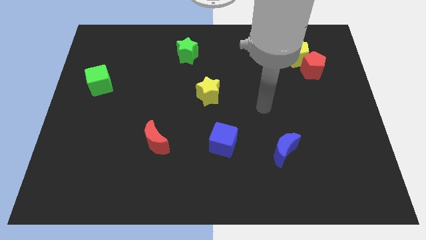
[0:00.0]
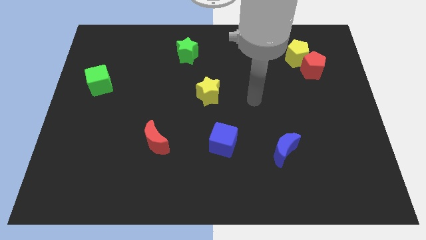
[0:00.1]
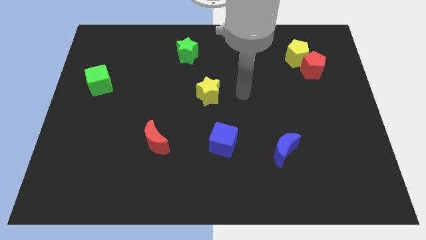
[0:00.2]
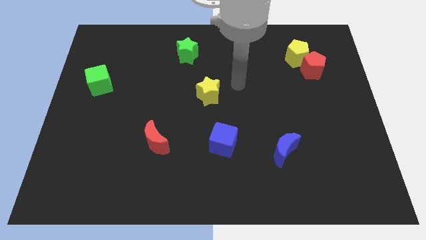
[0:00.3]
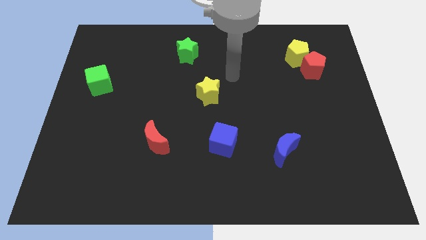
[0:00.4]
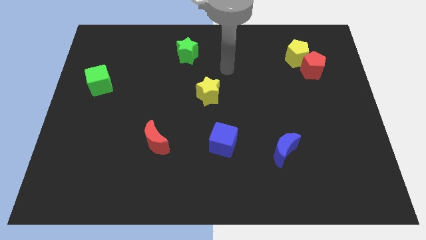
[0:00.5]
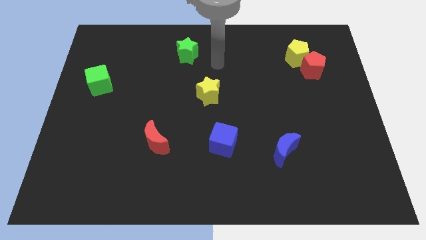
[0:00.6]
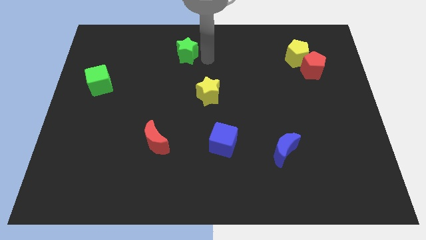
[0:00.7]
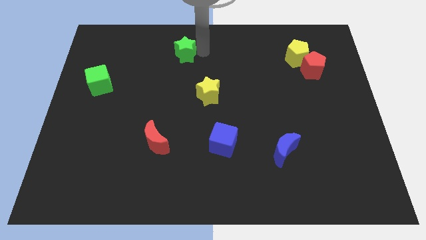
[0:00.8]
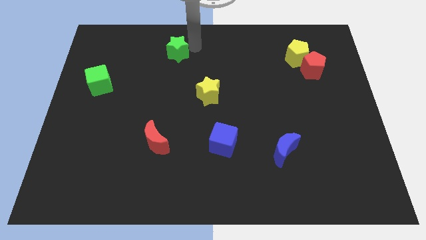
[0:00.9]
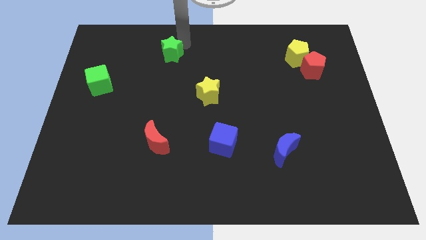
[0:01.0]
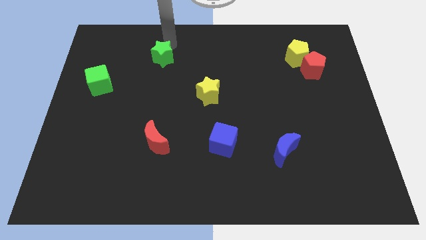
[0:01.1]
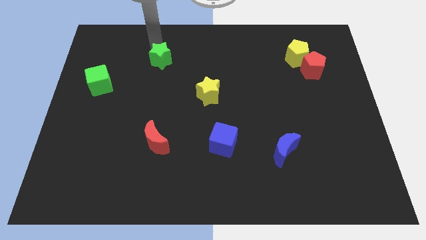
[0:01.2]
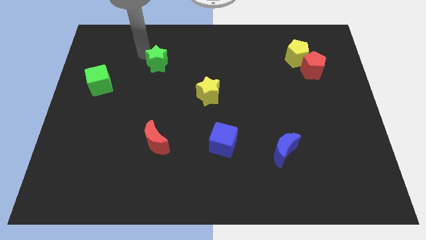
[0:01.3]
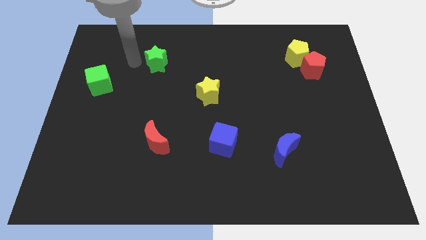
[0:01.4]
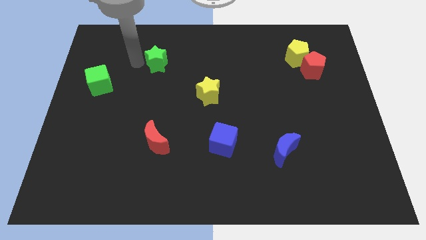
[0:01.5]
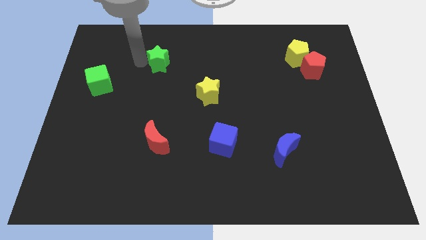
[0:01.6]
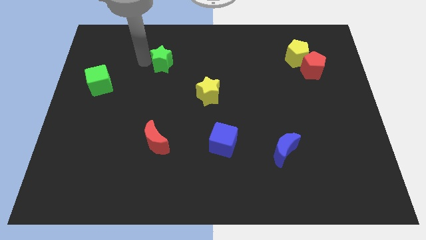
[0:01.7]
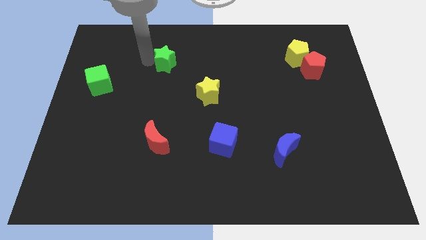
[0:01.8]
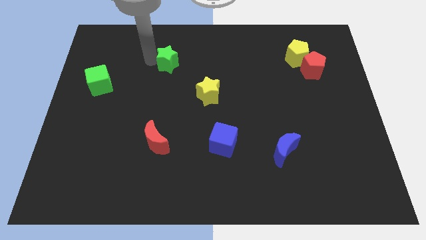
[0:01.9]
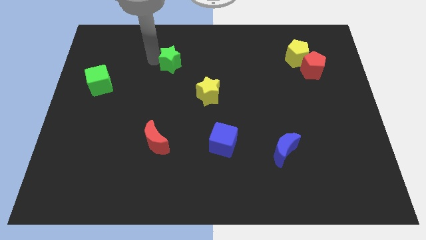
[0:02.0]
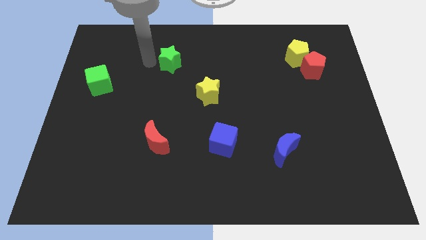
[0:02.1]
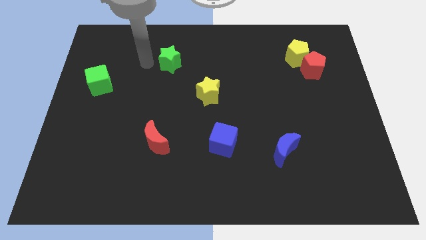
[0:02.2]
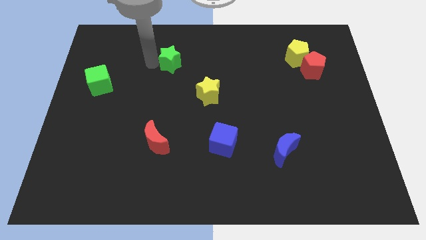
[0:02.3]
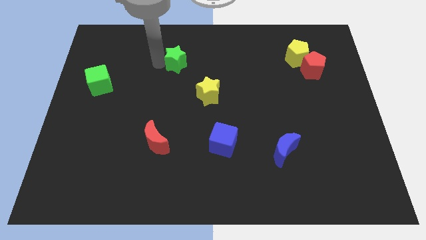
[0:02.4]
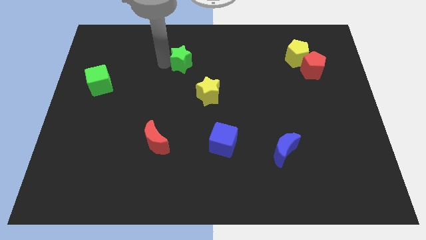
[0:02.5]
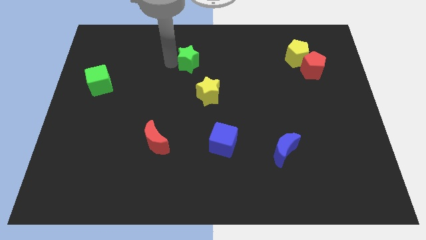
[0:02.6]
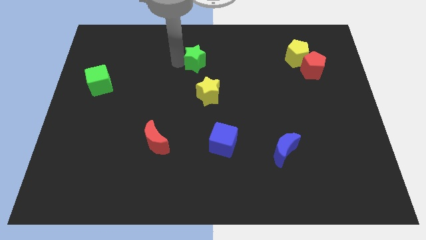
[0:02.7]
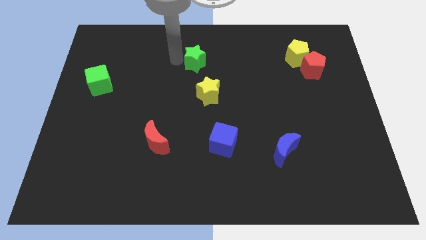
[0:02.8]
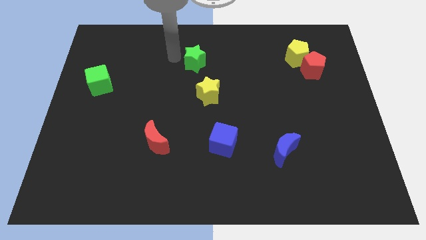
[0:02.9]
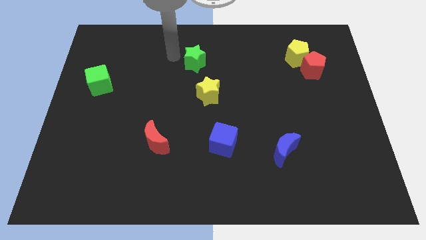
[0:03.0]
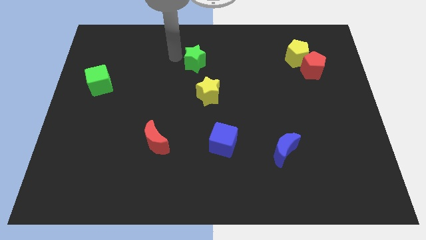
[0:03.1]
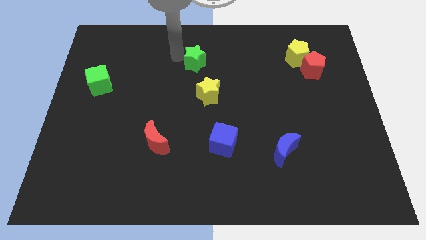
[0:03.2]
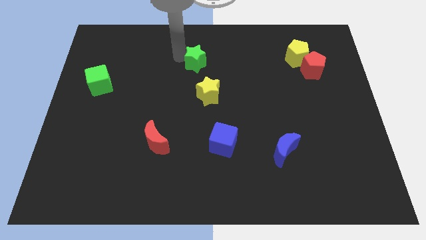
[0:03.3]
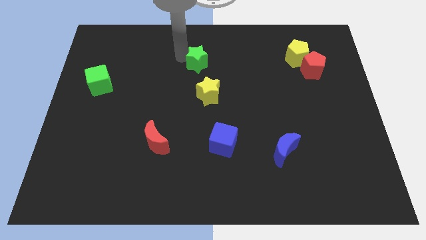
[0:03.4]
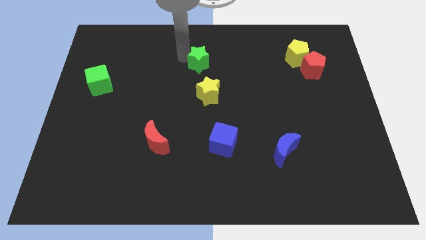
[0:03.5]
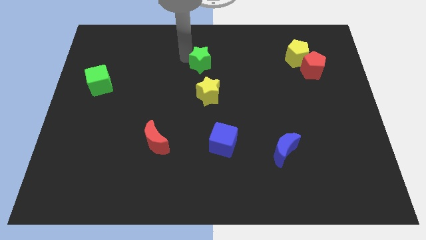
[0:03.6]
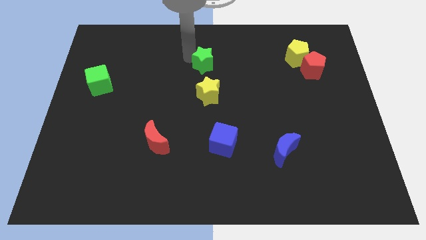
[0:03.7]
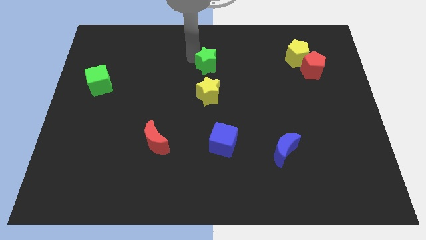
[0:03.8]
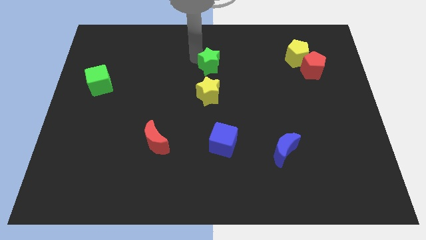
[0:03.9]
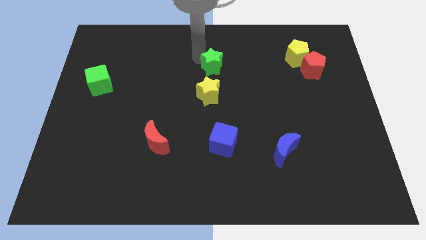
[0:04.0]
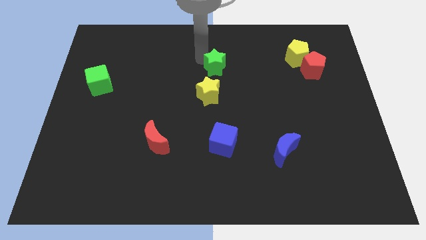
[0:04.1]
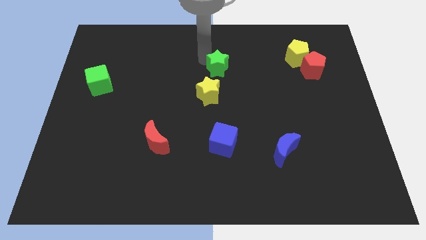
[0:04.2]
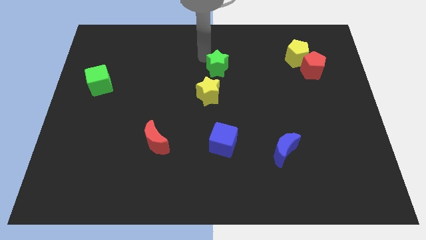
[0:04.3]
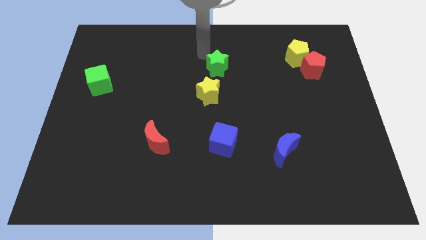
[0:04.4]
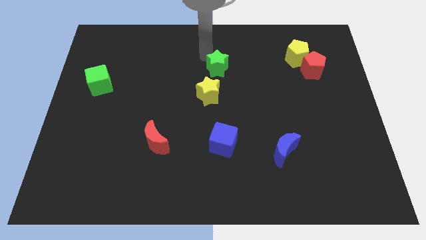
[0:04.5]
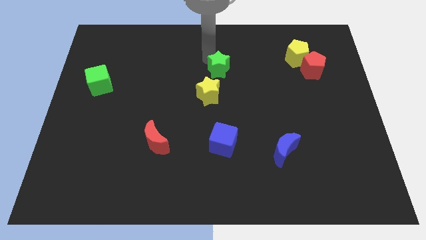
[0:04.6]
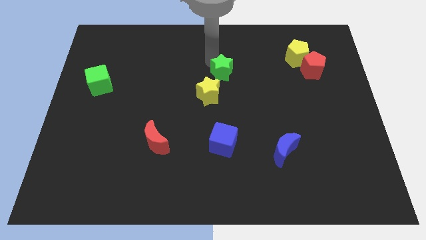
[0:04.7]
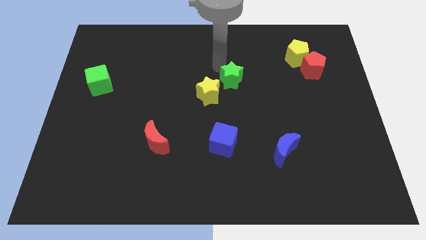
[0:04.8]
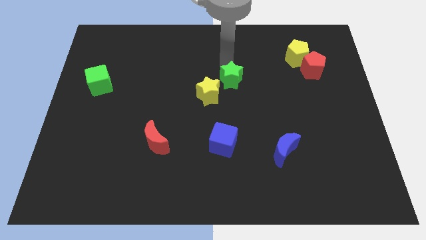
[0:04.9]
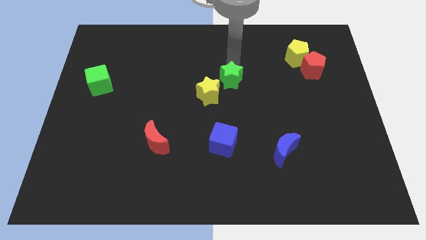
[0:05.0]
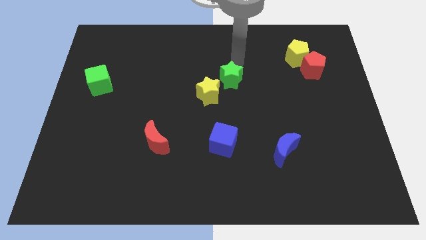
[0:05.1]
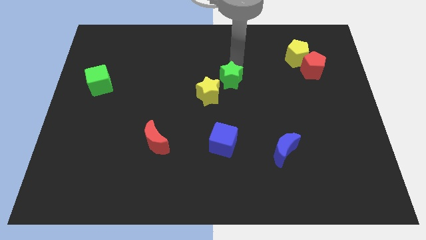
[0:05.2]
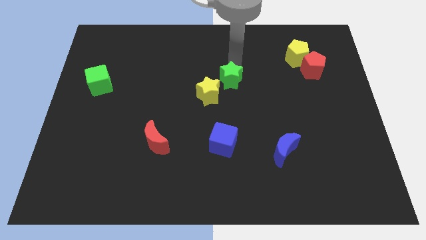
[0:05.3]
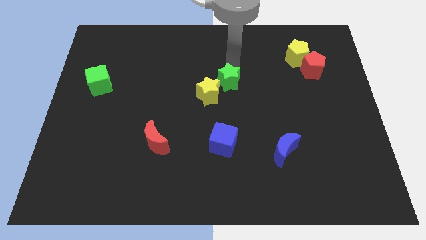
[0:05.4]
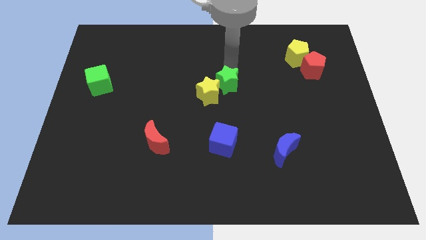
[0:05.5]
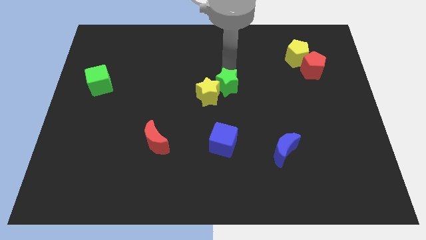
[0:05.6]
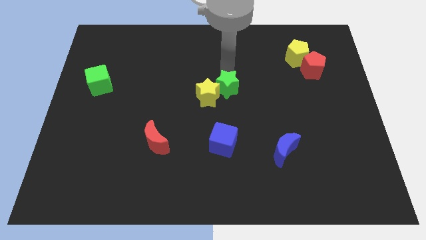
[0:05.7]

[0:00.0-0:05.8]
slide the green star to the top of the blue cube

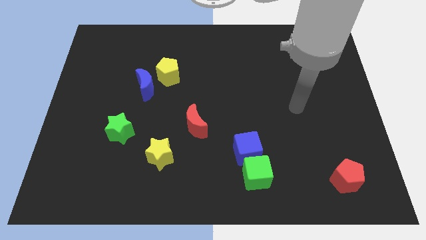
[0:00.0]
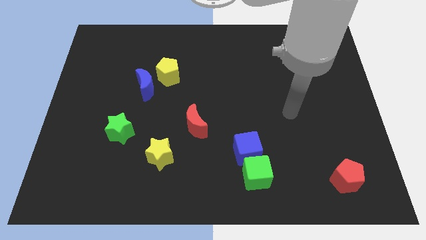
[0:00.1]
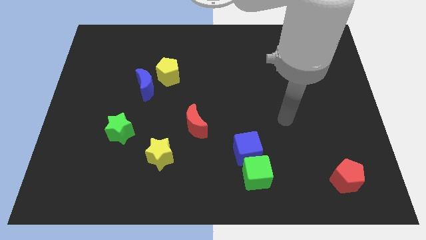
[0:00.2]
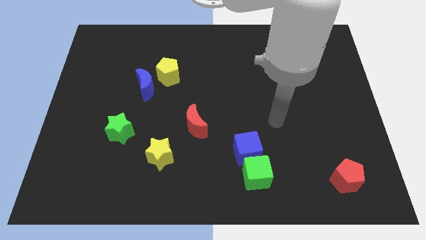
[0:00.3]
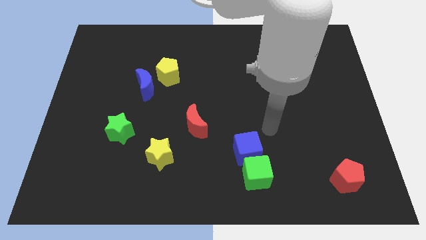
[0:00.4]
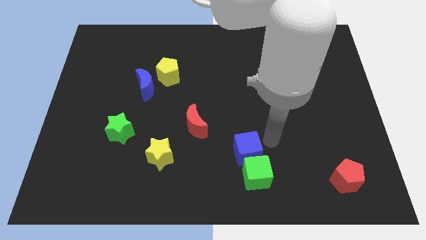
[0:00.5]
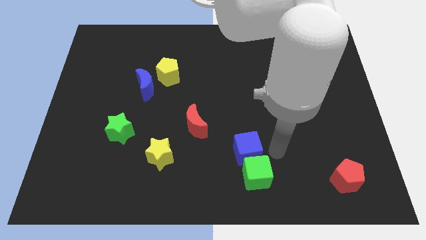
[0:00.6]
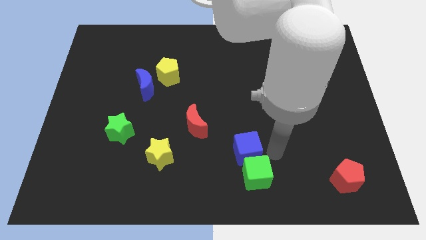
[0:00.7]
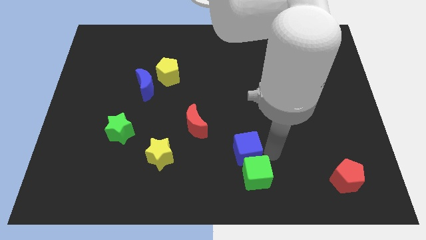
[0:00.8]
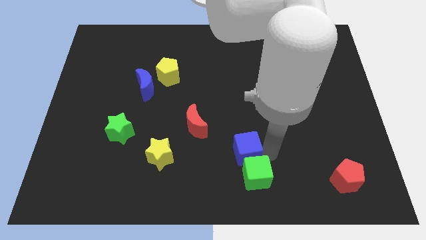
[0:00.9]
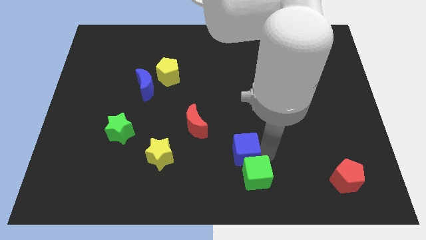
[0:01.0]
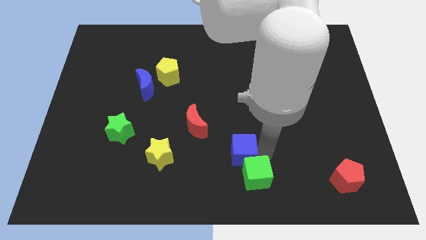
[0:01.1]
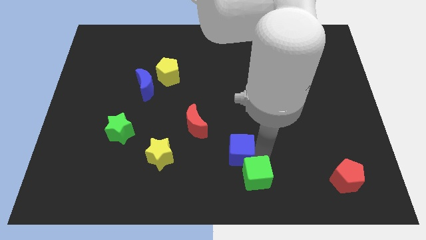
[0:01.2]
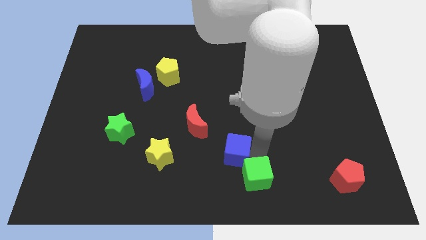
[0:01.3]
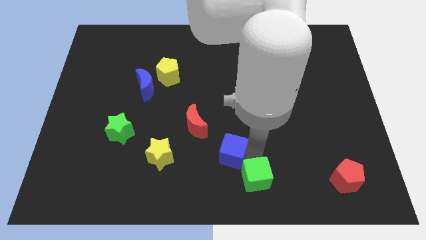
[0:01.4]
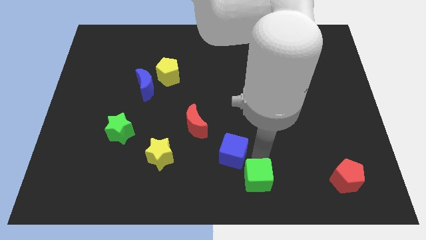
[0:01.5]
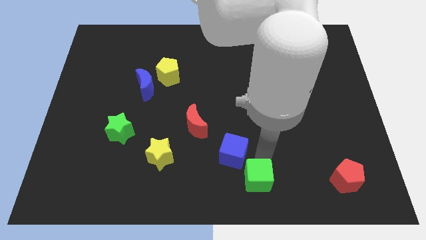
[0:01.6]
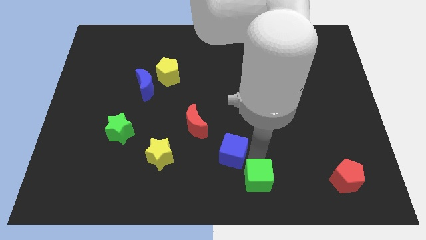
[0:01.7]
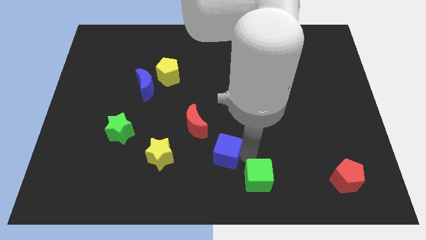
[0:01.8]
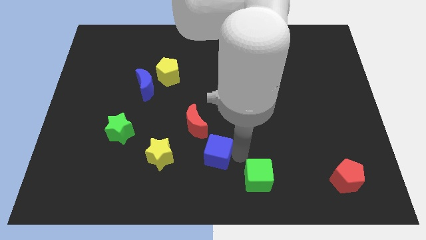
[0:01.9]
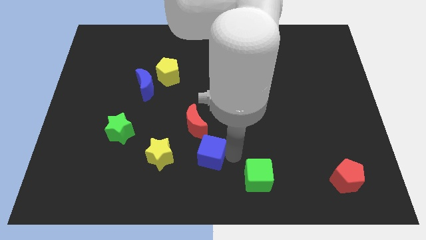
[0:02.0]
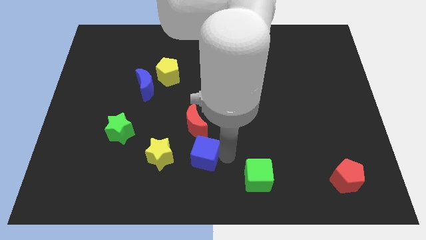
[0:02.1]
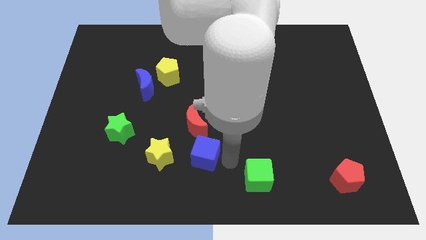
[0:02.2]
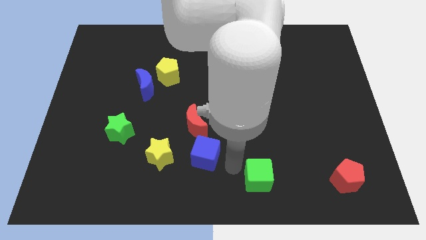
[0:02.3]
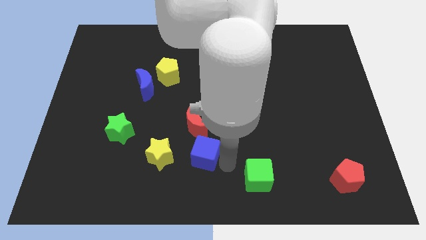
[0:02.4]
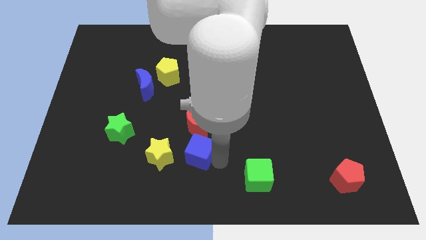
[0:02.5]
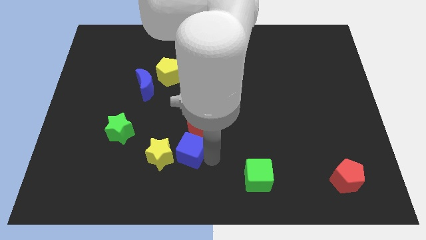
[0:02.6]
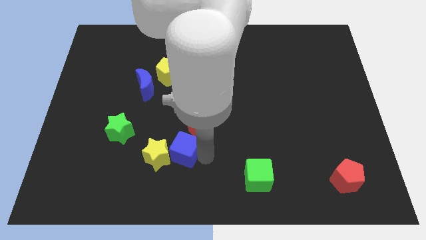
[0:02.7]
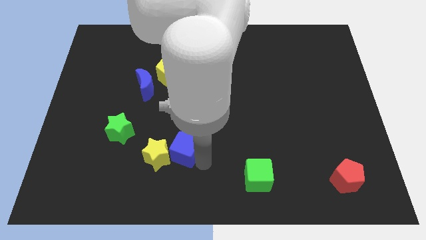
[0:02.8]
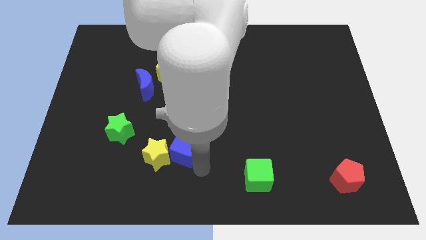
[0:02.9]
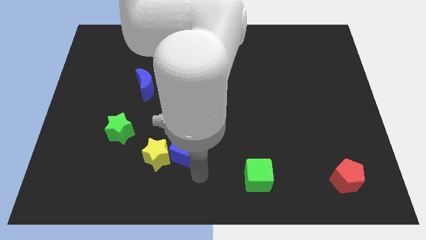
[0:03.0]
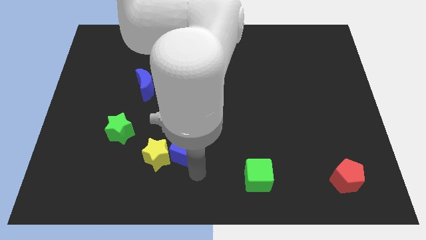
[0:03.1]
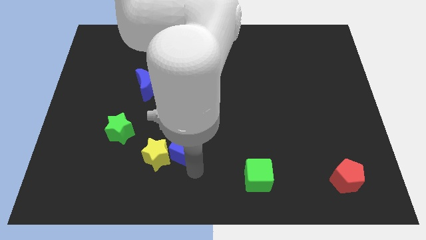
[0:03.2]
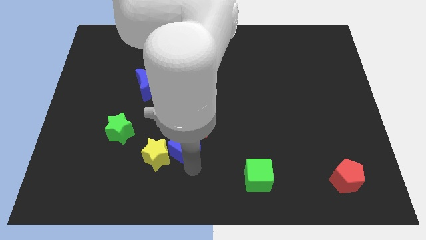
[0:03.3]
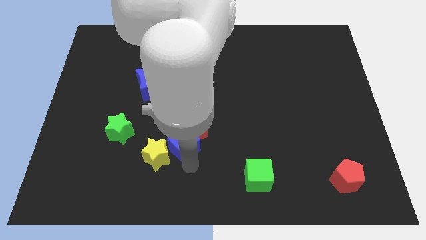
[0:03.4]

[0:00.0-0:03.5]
put the blue cube just right of the green star
